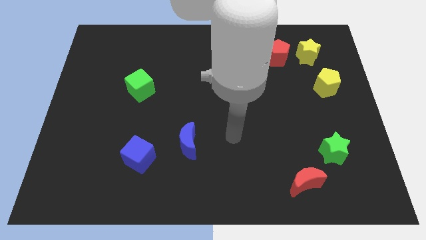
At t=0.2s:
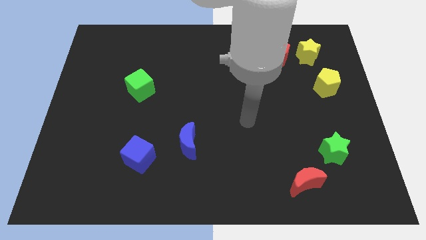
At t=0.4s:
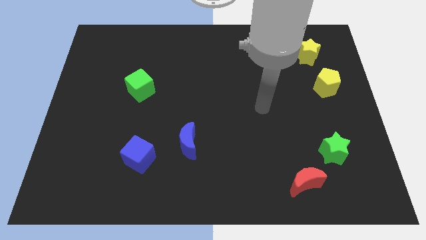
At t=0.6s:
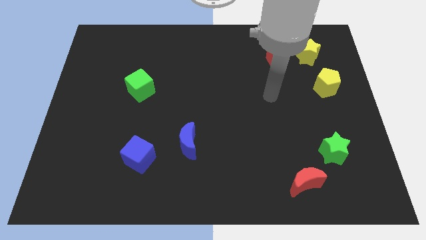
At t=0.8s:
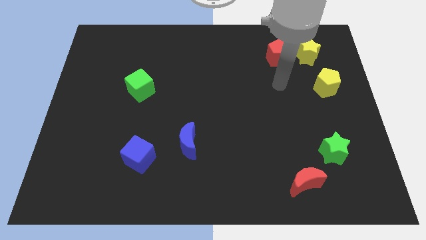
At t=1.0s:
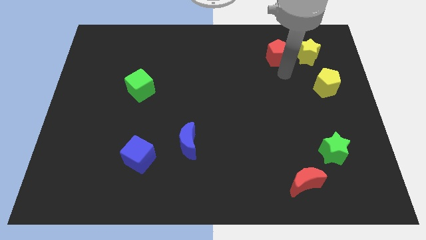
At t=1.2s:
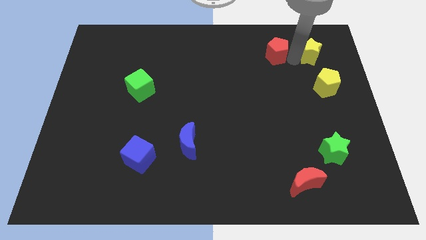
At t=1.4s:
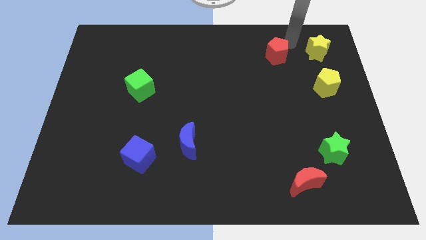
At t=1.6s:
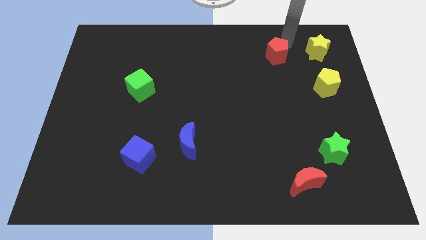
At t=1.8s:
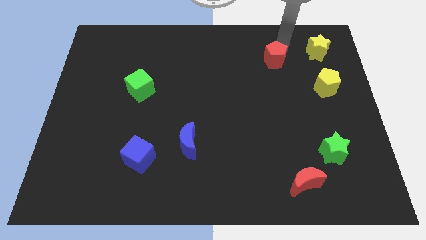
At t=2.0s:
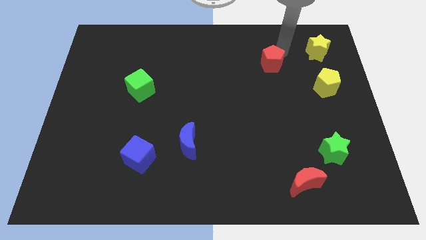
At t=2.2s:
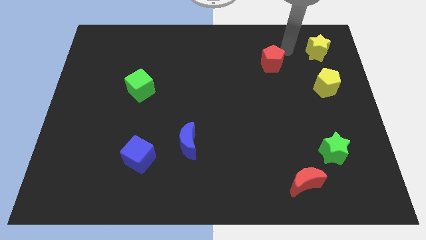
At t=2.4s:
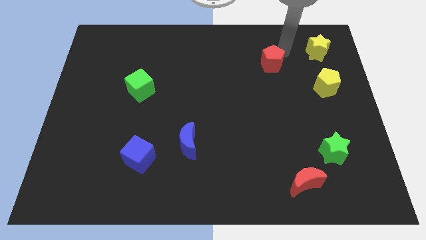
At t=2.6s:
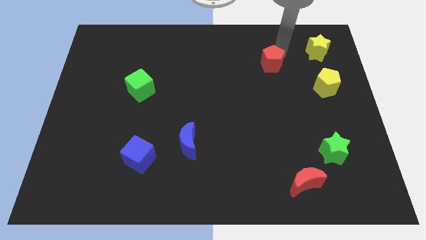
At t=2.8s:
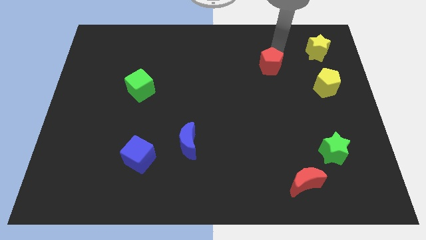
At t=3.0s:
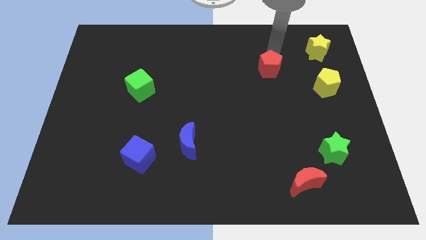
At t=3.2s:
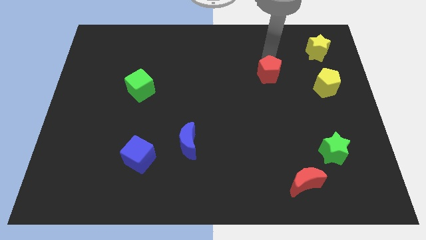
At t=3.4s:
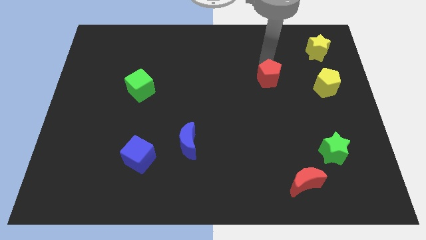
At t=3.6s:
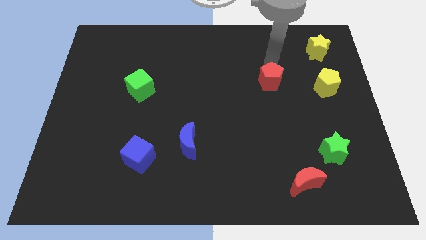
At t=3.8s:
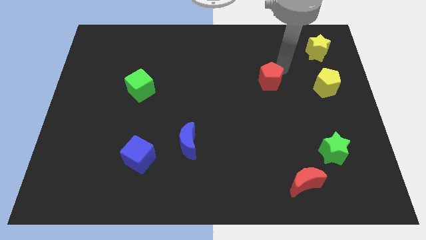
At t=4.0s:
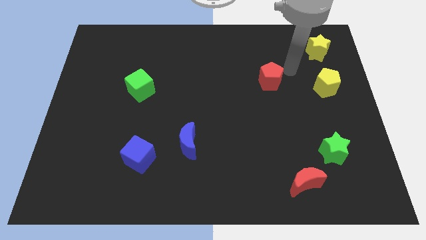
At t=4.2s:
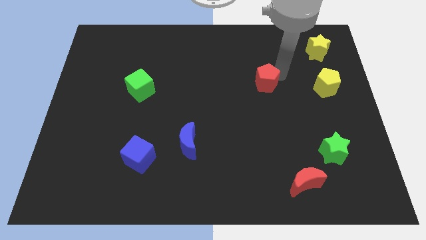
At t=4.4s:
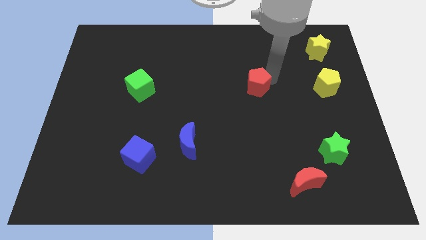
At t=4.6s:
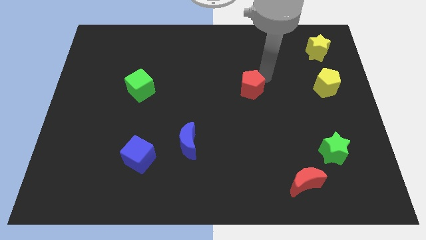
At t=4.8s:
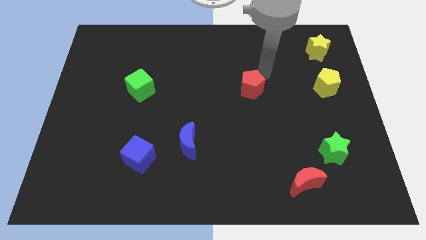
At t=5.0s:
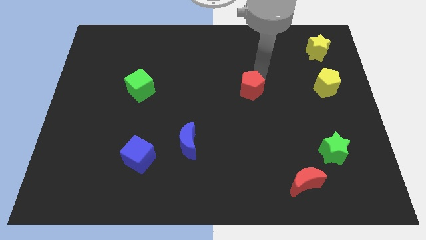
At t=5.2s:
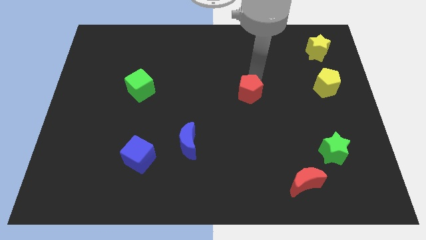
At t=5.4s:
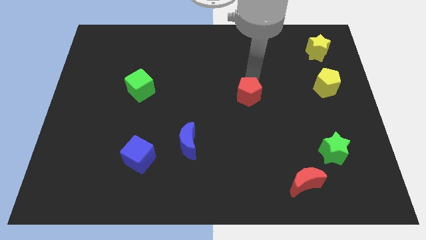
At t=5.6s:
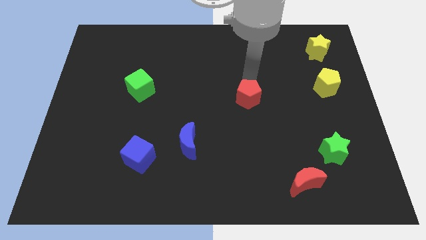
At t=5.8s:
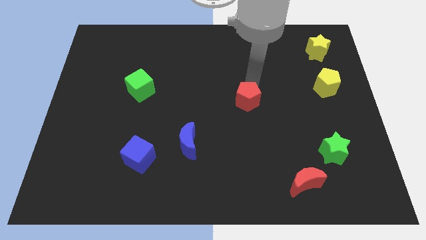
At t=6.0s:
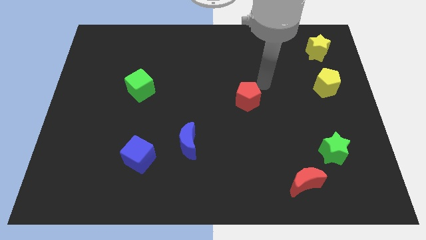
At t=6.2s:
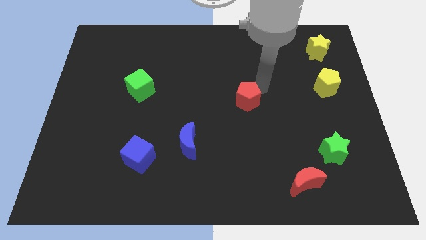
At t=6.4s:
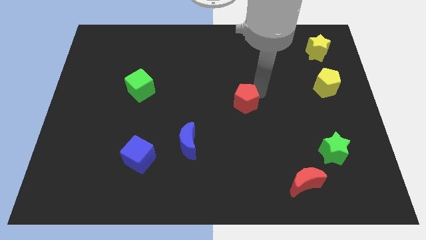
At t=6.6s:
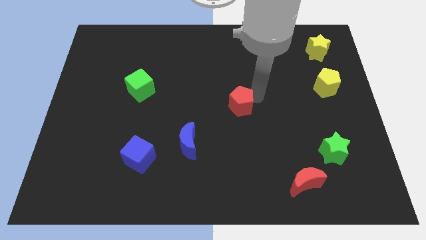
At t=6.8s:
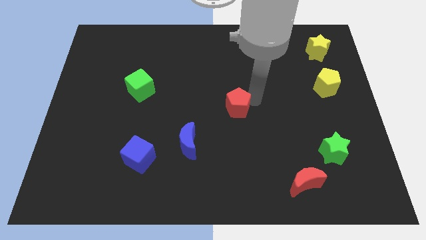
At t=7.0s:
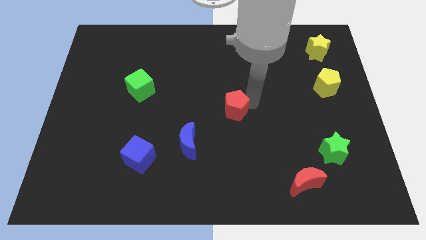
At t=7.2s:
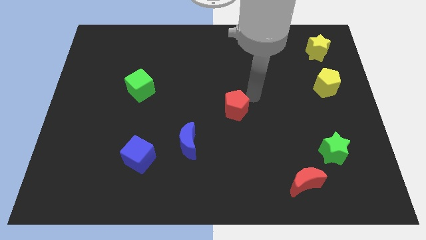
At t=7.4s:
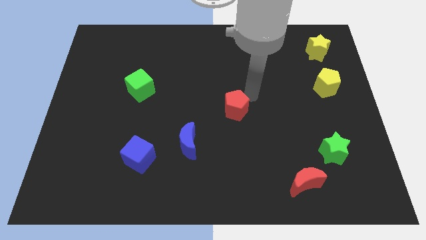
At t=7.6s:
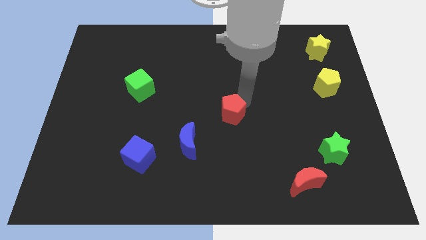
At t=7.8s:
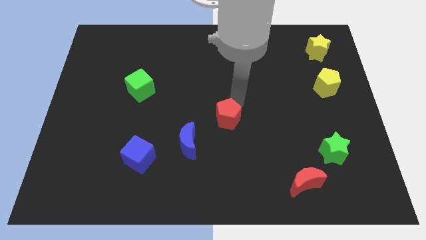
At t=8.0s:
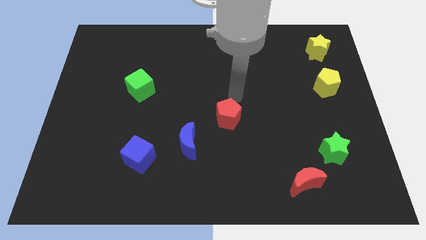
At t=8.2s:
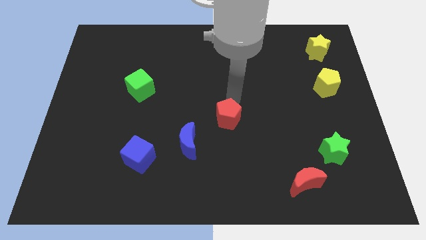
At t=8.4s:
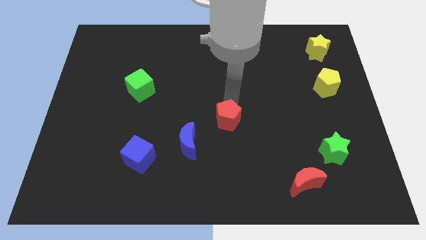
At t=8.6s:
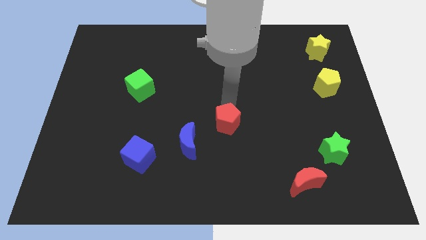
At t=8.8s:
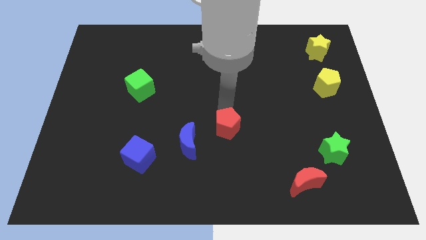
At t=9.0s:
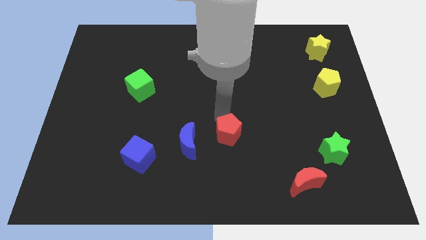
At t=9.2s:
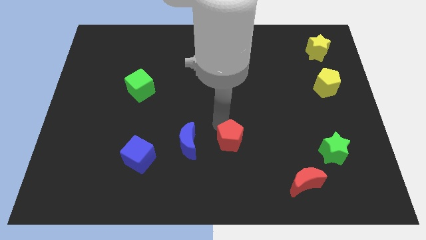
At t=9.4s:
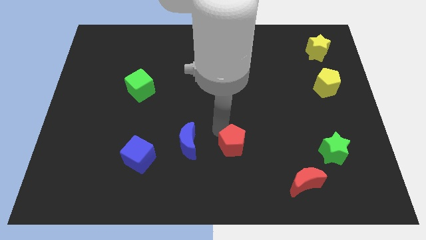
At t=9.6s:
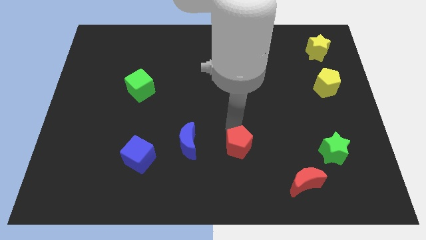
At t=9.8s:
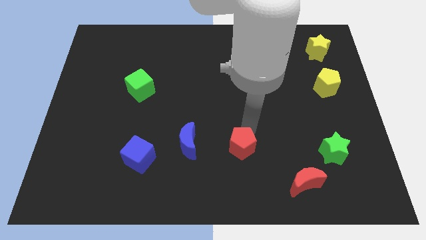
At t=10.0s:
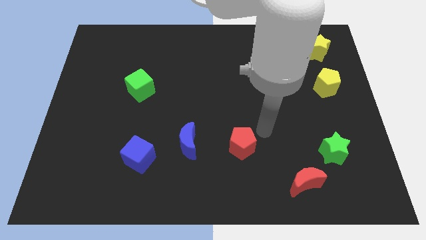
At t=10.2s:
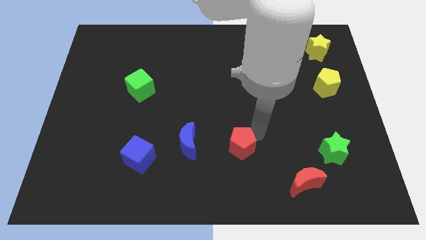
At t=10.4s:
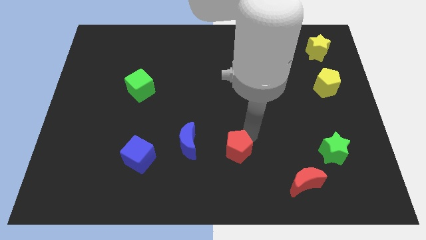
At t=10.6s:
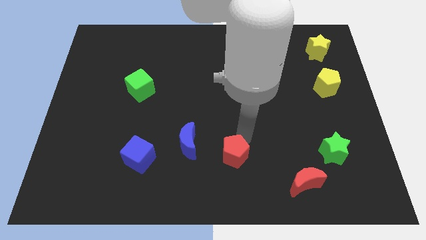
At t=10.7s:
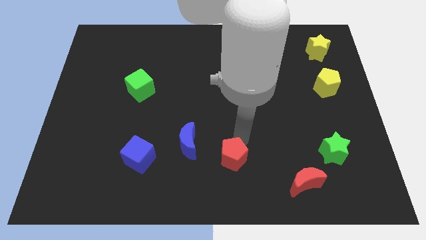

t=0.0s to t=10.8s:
slide the red pentagon to the bottom right of the blue moon

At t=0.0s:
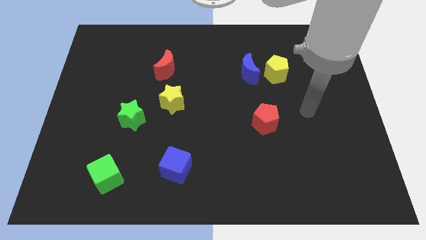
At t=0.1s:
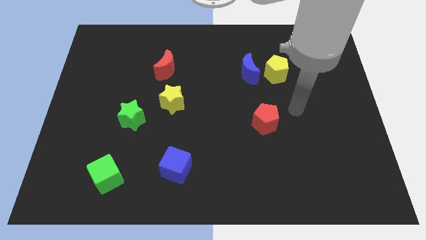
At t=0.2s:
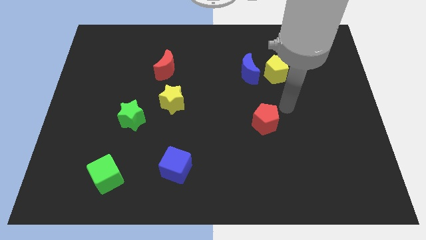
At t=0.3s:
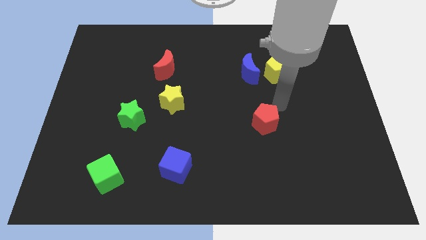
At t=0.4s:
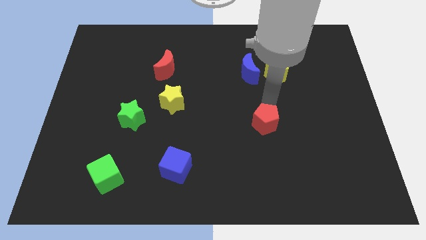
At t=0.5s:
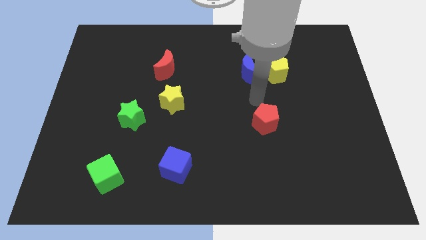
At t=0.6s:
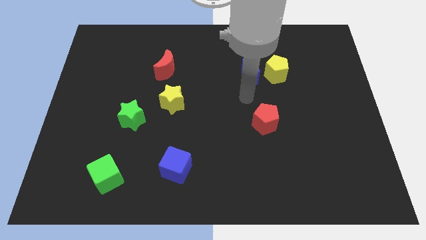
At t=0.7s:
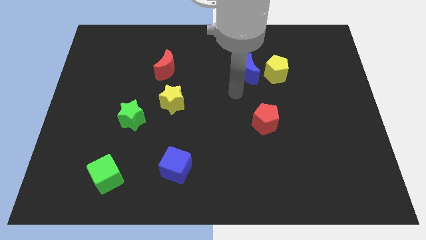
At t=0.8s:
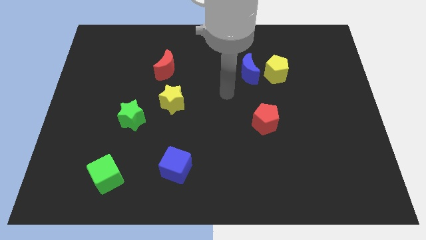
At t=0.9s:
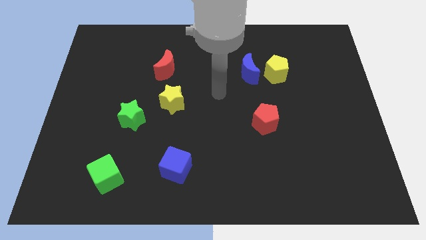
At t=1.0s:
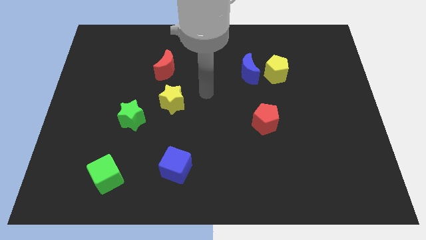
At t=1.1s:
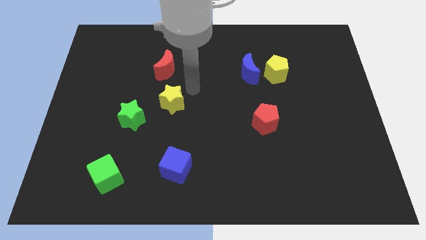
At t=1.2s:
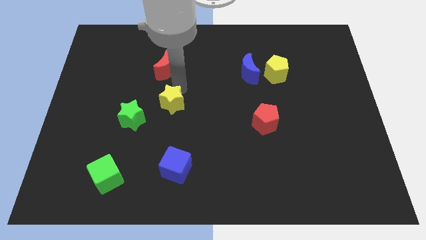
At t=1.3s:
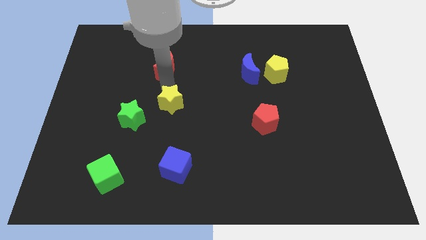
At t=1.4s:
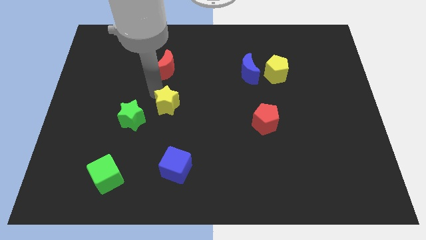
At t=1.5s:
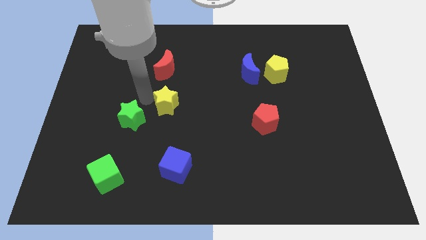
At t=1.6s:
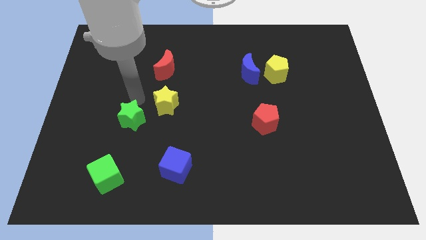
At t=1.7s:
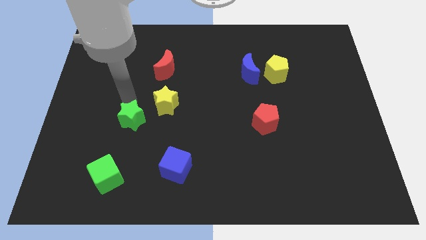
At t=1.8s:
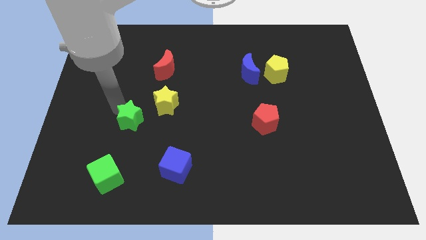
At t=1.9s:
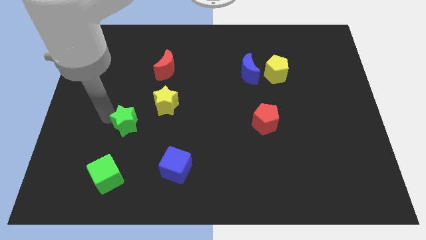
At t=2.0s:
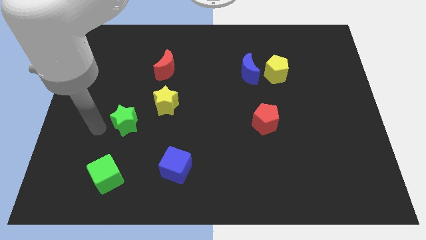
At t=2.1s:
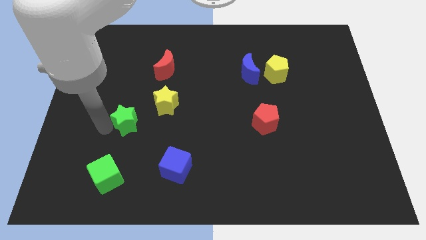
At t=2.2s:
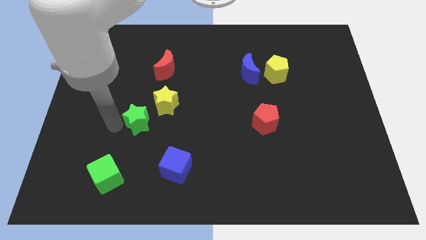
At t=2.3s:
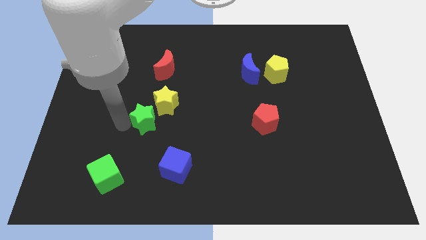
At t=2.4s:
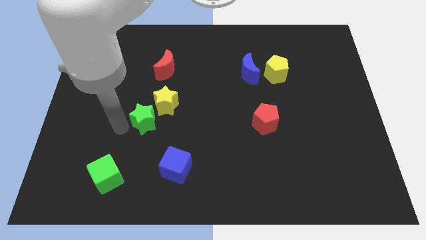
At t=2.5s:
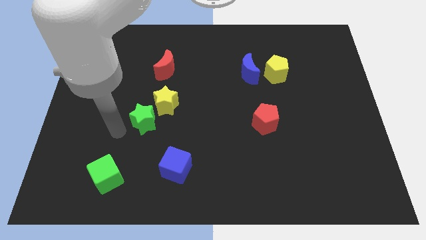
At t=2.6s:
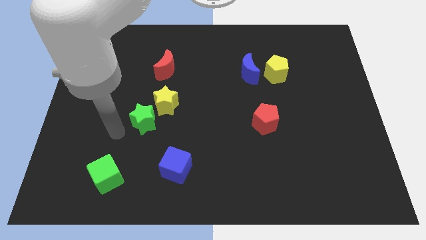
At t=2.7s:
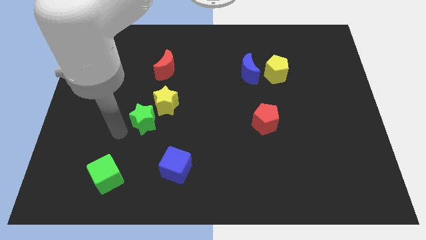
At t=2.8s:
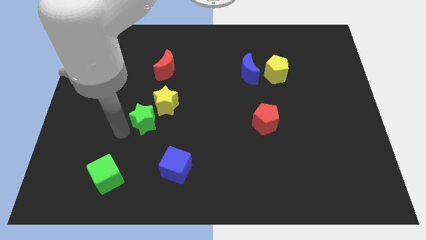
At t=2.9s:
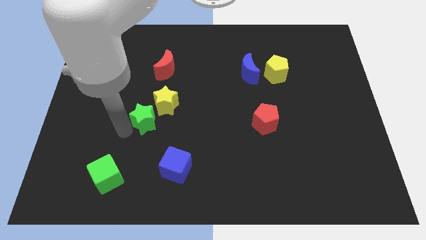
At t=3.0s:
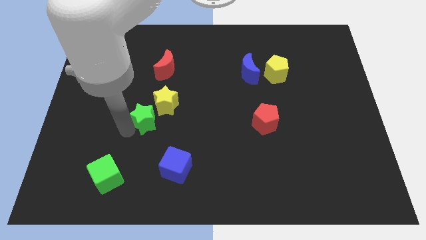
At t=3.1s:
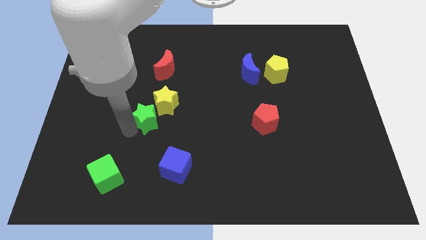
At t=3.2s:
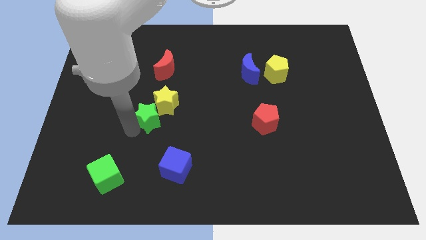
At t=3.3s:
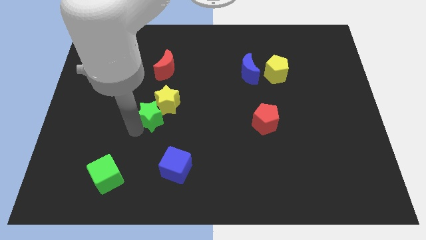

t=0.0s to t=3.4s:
slide the green star to the bottom of the red moon
